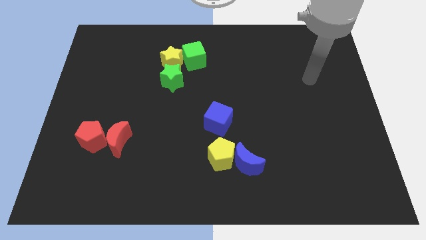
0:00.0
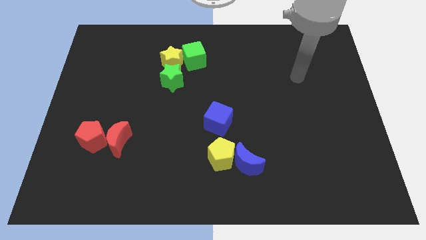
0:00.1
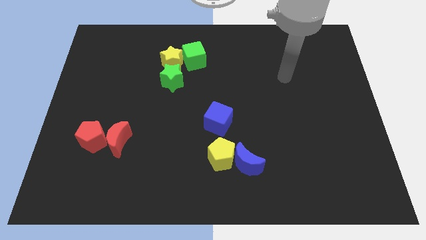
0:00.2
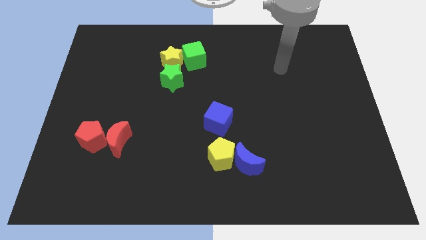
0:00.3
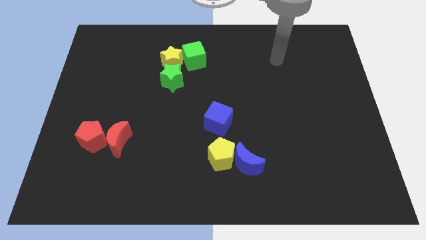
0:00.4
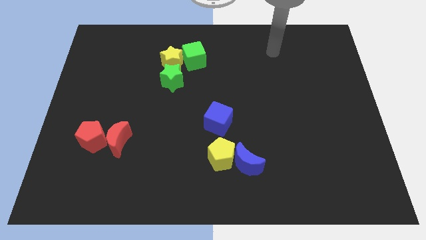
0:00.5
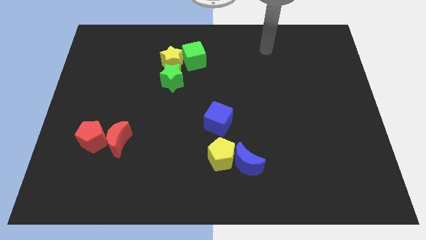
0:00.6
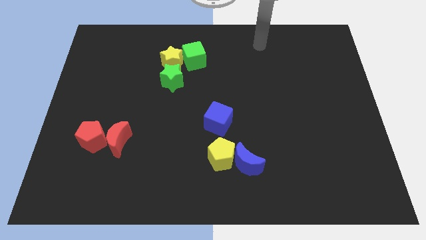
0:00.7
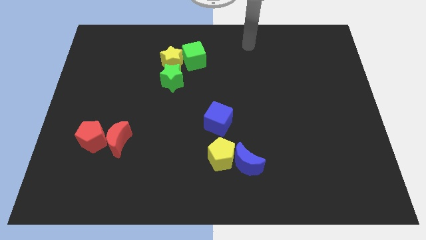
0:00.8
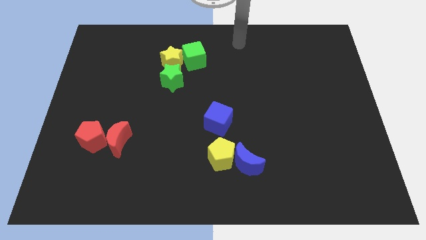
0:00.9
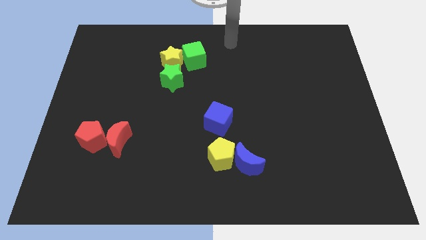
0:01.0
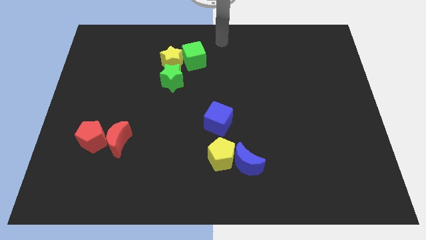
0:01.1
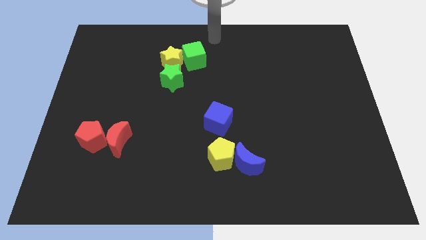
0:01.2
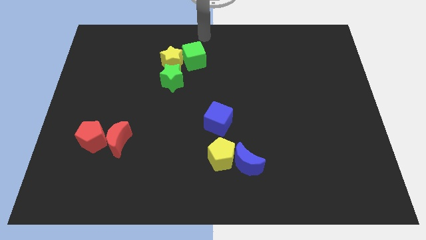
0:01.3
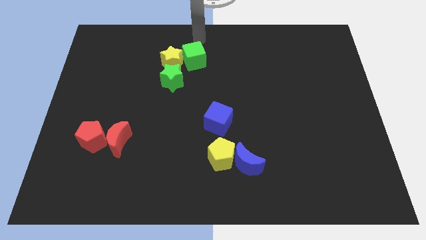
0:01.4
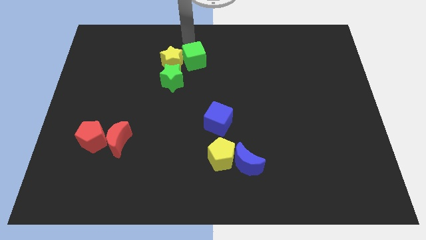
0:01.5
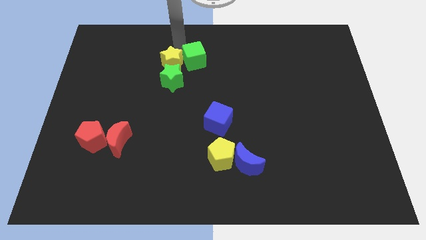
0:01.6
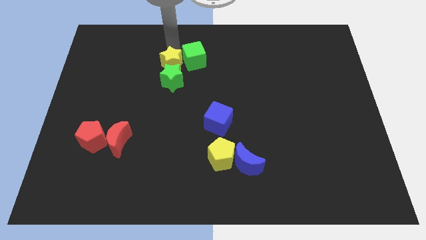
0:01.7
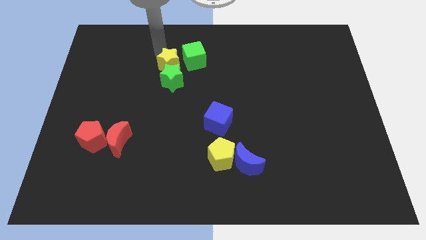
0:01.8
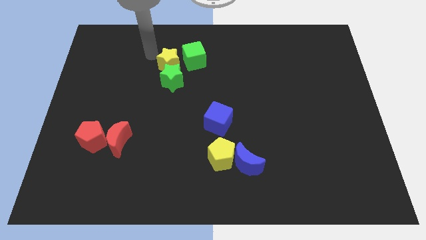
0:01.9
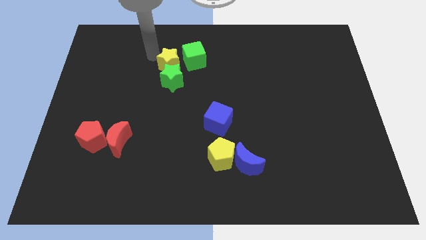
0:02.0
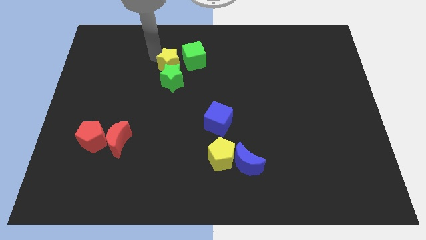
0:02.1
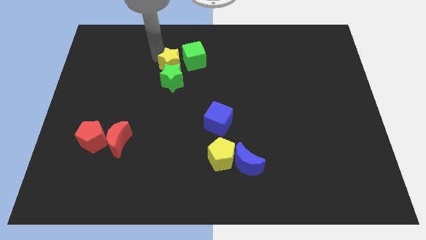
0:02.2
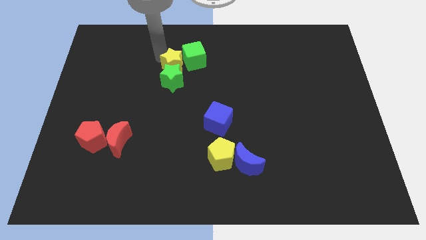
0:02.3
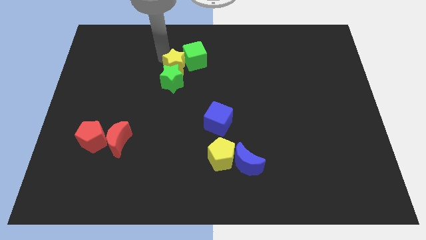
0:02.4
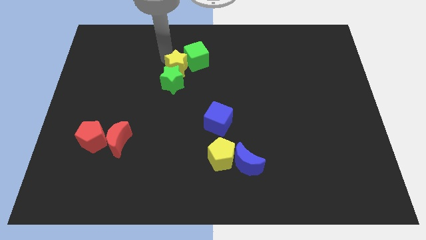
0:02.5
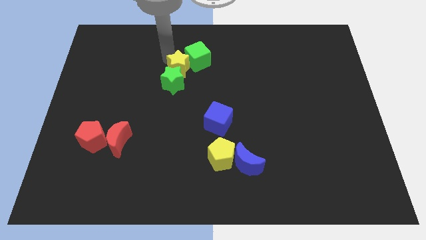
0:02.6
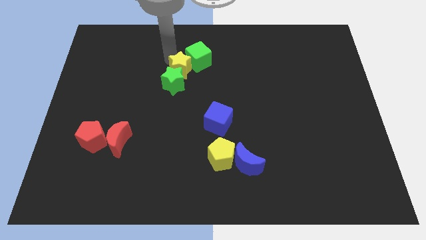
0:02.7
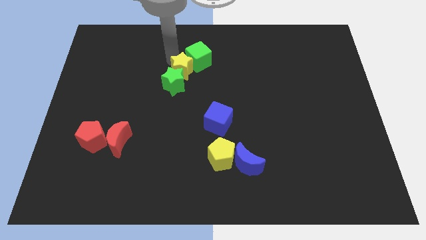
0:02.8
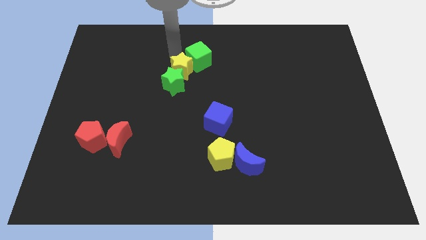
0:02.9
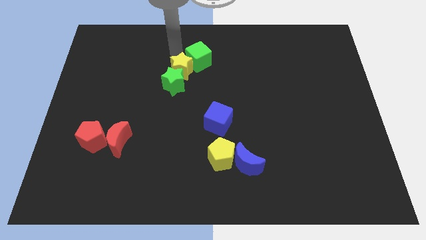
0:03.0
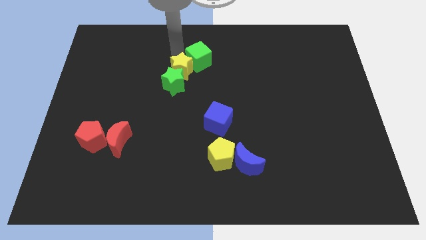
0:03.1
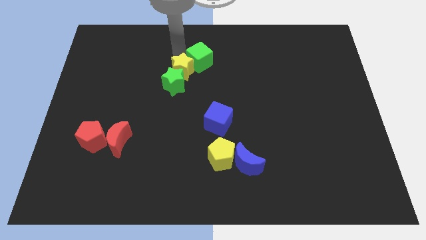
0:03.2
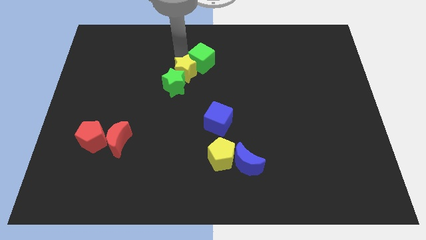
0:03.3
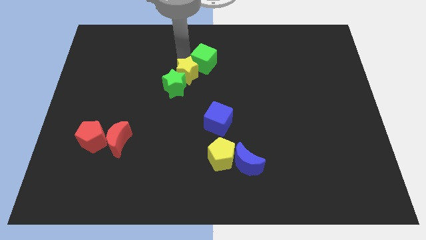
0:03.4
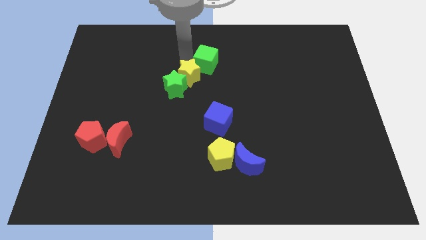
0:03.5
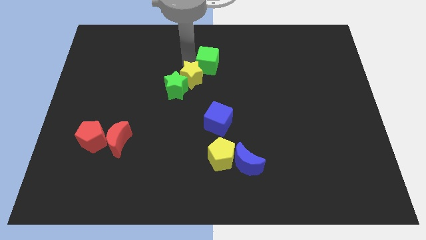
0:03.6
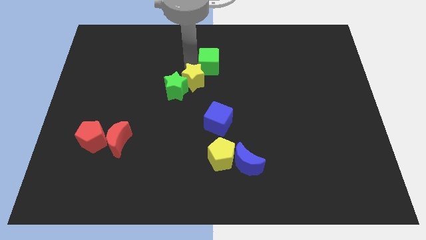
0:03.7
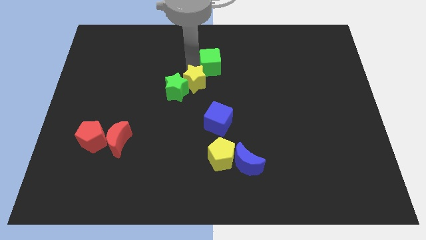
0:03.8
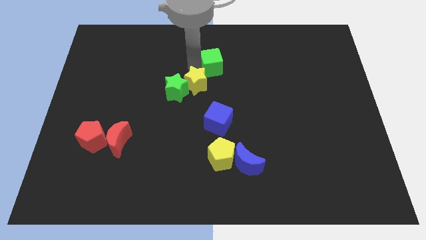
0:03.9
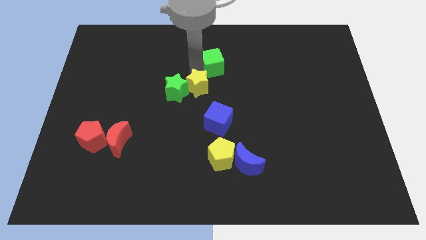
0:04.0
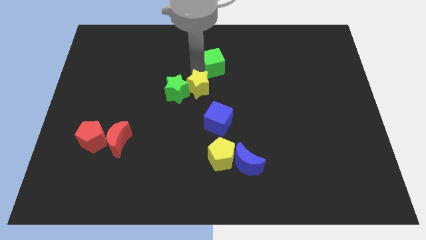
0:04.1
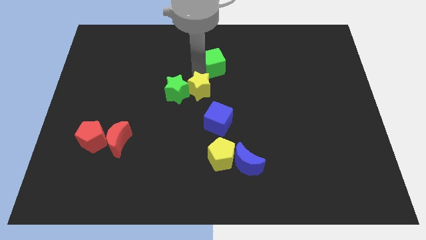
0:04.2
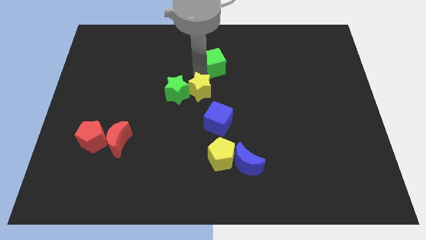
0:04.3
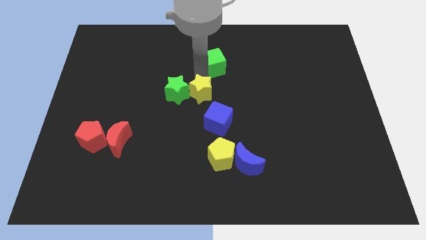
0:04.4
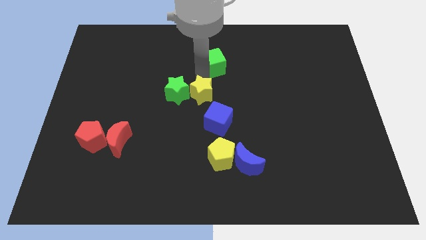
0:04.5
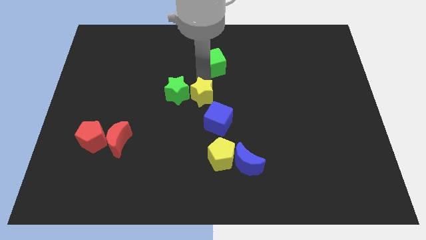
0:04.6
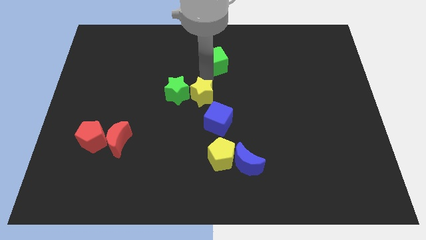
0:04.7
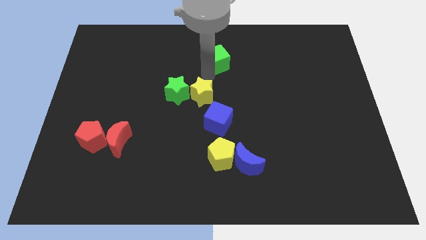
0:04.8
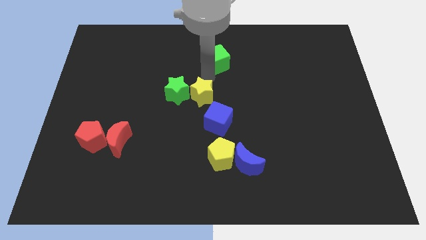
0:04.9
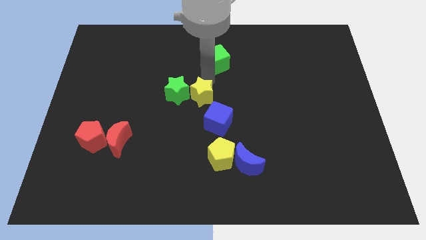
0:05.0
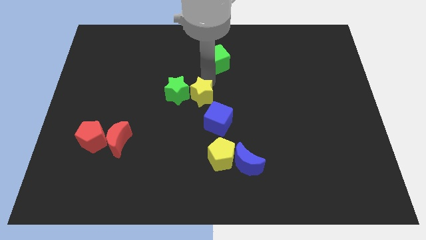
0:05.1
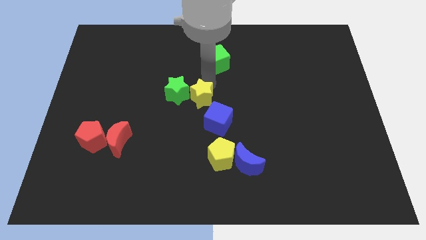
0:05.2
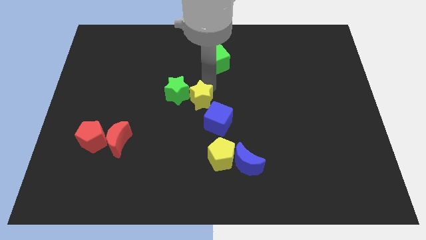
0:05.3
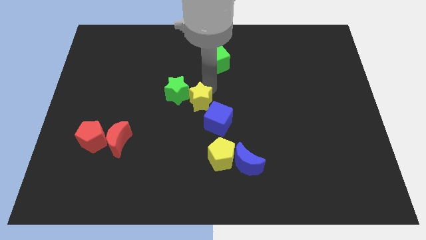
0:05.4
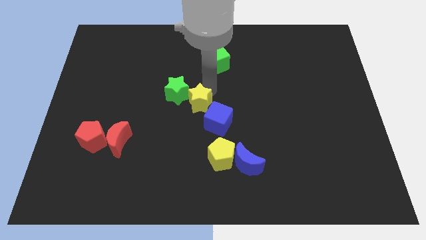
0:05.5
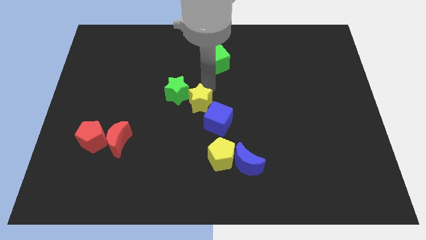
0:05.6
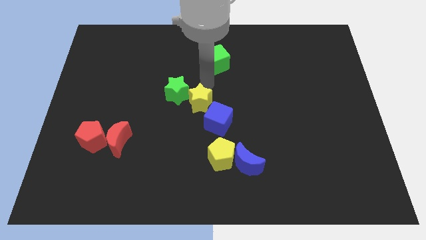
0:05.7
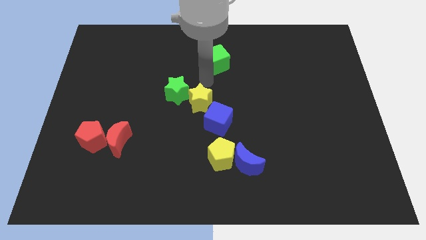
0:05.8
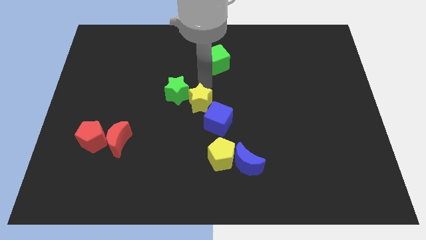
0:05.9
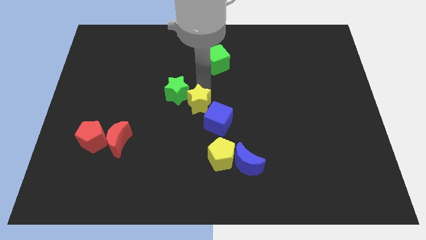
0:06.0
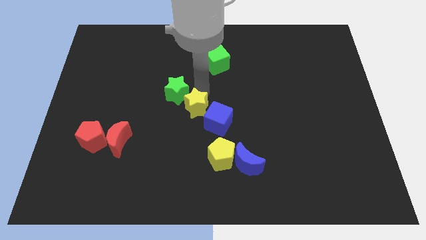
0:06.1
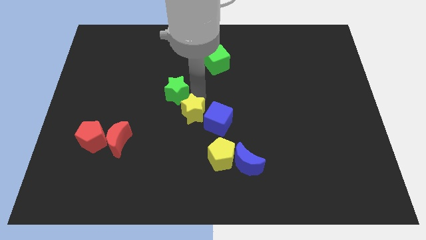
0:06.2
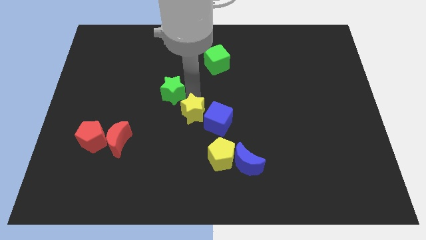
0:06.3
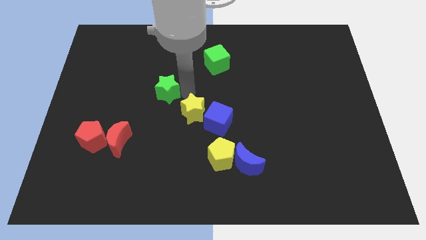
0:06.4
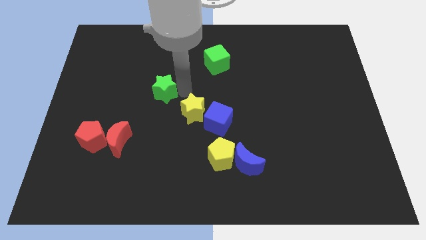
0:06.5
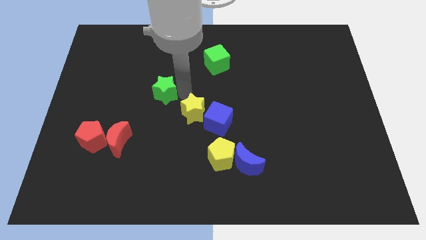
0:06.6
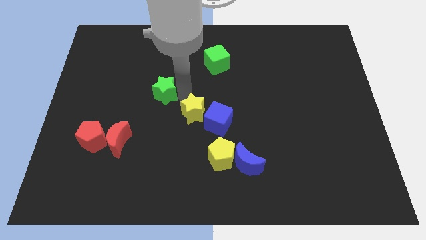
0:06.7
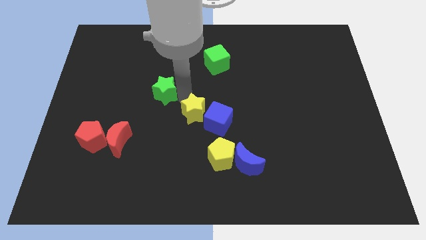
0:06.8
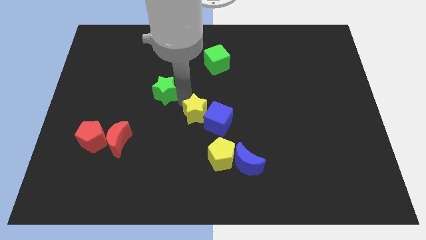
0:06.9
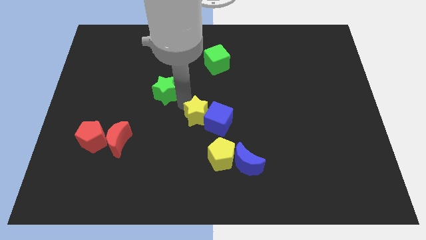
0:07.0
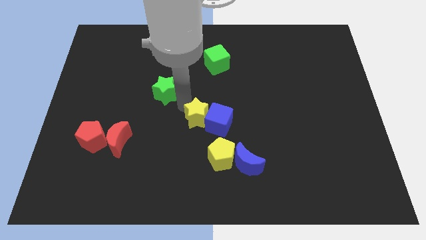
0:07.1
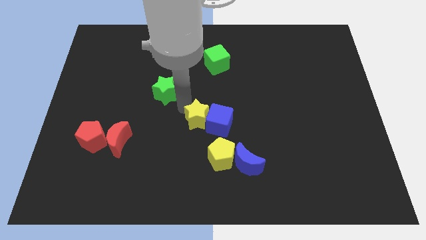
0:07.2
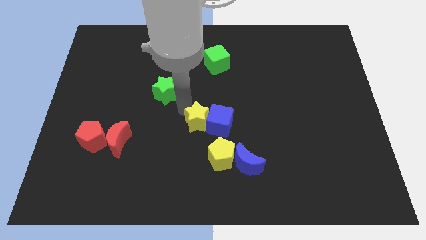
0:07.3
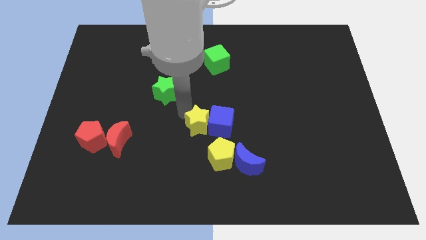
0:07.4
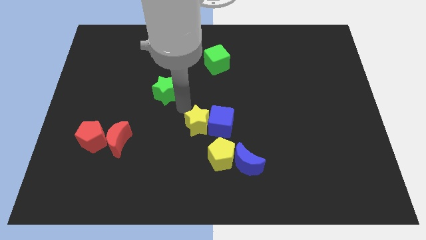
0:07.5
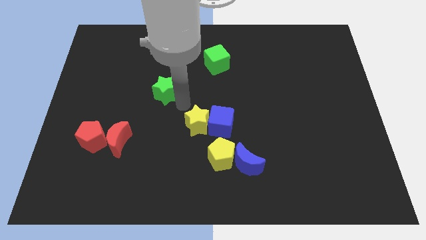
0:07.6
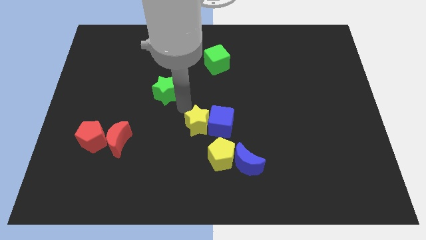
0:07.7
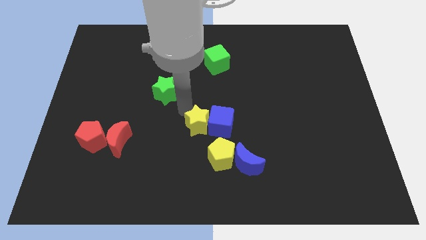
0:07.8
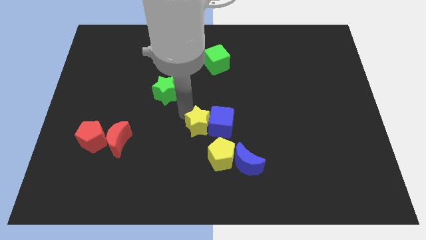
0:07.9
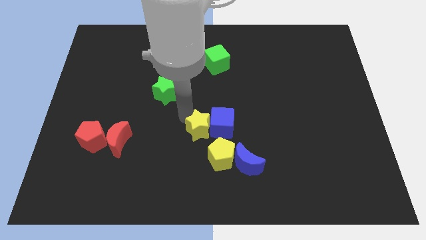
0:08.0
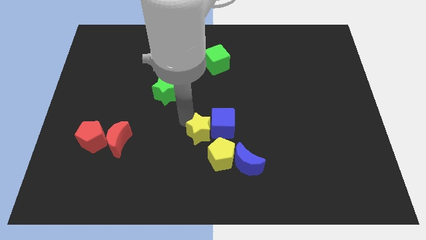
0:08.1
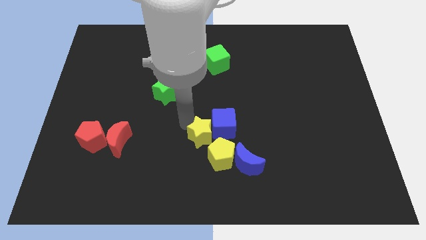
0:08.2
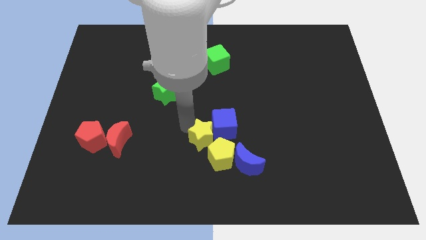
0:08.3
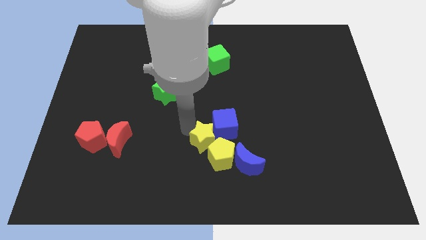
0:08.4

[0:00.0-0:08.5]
push the yellow star close to the yellow pentagon
